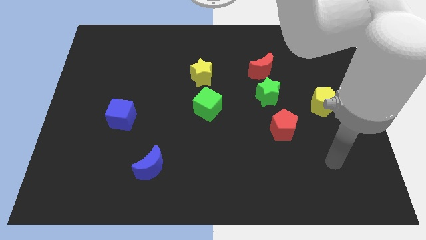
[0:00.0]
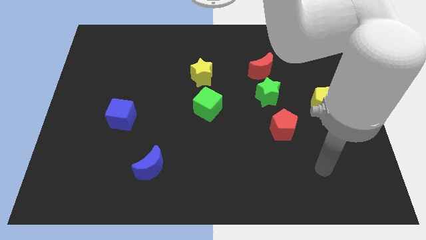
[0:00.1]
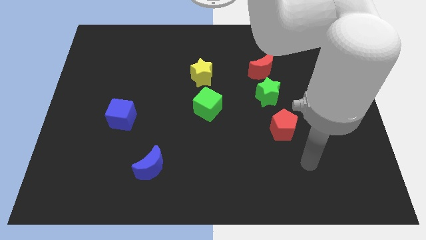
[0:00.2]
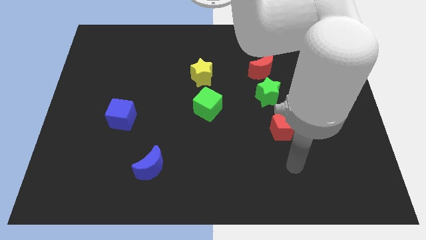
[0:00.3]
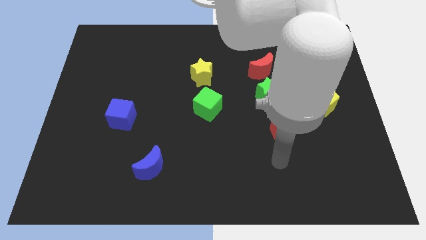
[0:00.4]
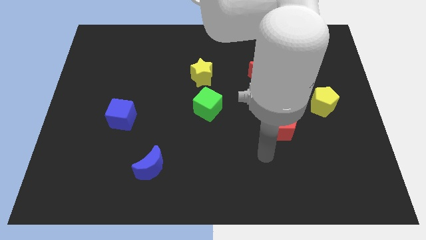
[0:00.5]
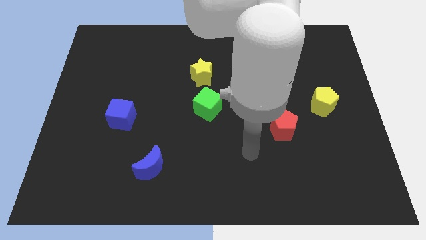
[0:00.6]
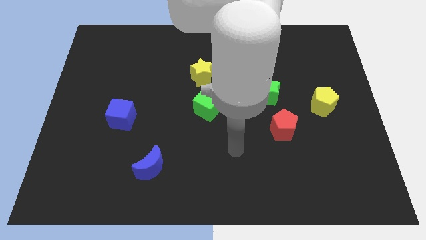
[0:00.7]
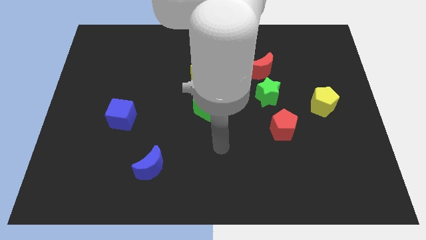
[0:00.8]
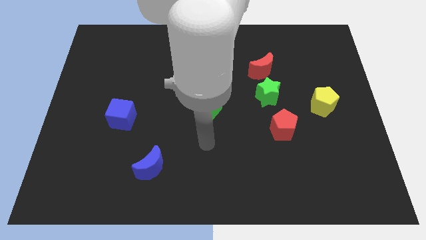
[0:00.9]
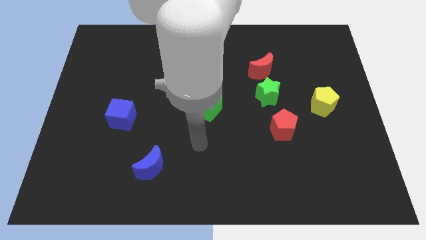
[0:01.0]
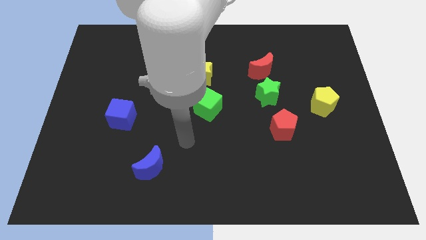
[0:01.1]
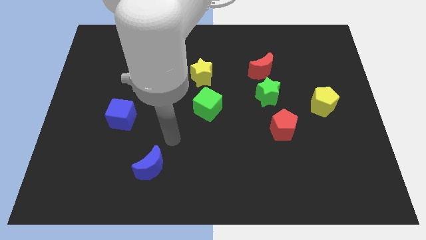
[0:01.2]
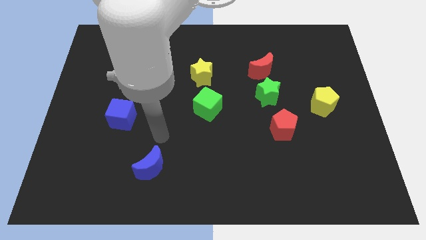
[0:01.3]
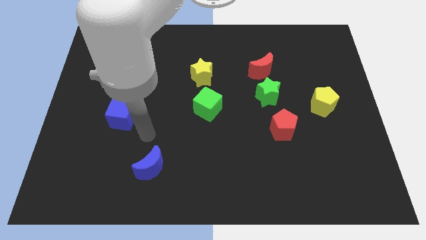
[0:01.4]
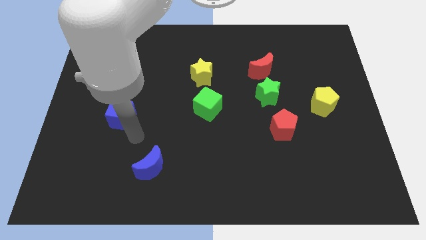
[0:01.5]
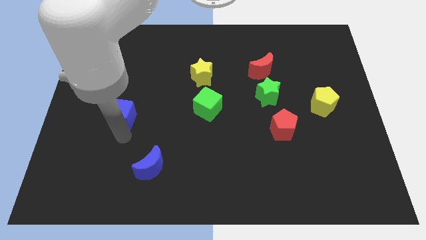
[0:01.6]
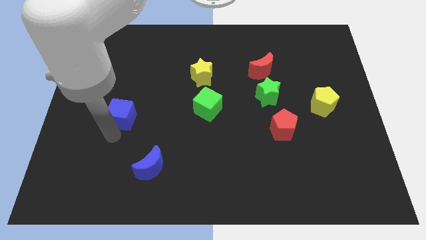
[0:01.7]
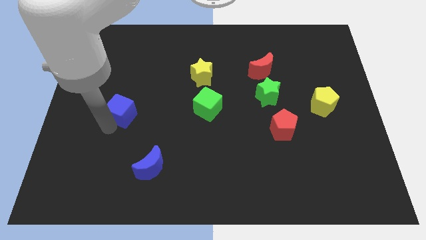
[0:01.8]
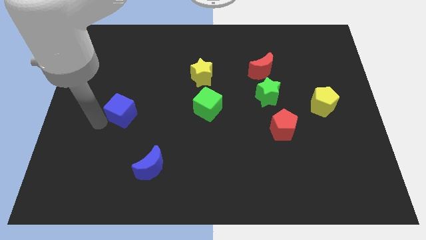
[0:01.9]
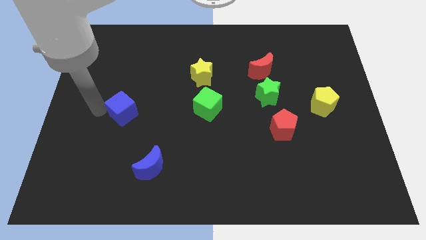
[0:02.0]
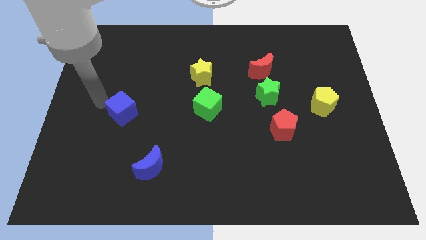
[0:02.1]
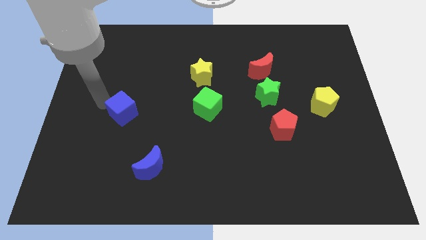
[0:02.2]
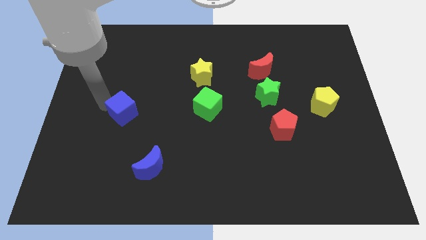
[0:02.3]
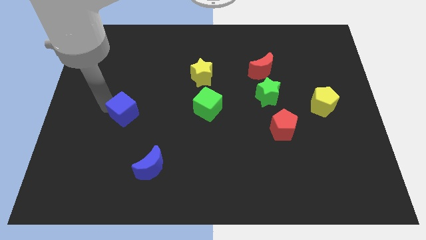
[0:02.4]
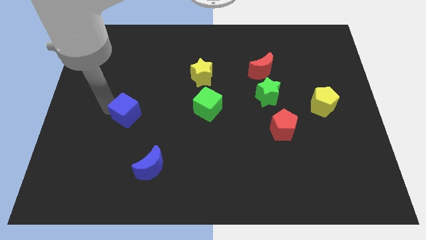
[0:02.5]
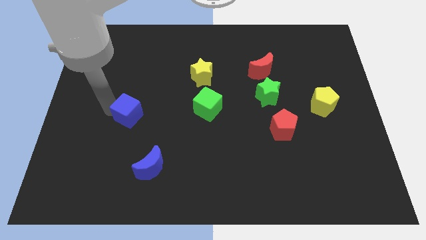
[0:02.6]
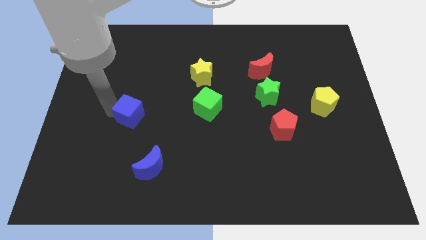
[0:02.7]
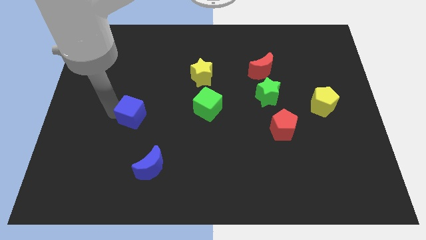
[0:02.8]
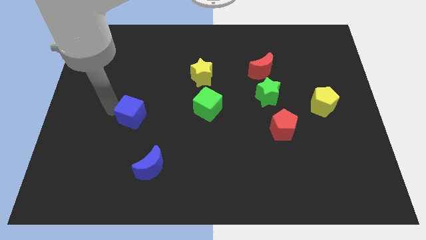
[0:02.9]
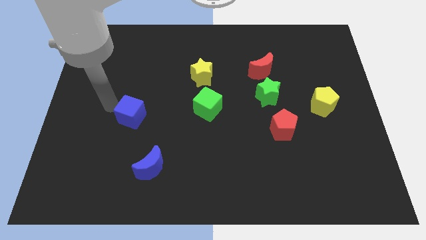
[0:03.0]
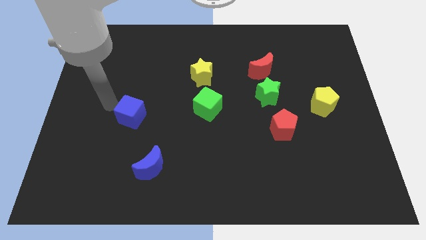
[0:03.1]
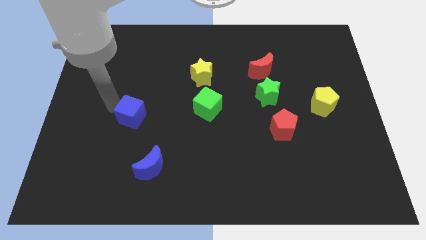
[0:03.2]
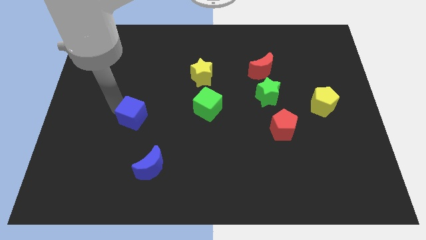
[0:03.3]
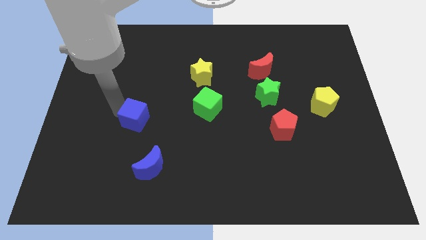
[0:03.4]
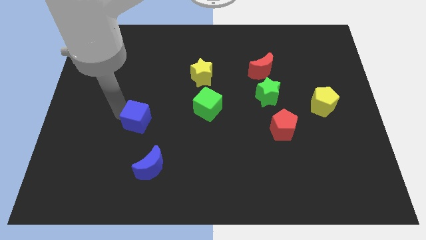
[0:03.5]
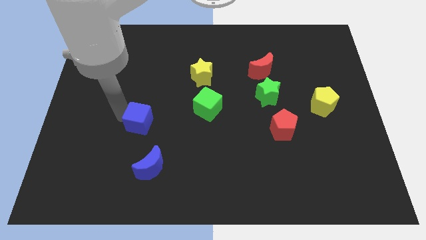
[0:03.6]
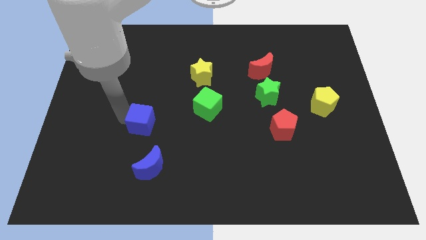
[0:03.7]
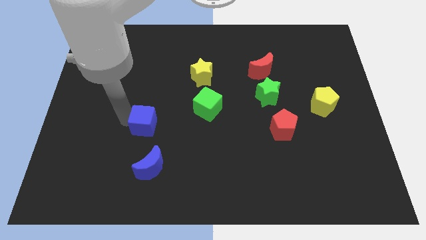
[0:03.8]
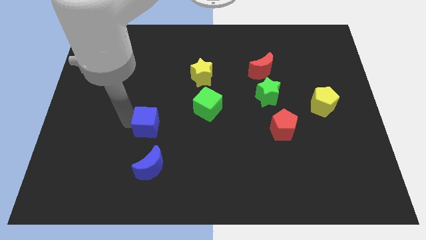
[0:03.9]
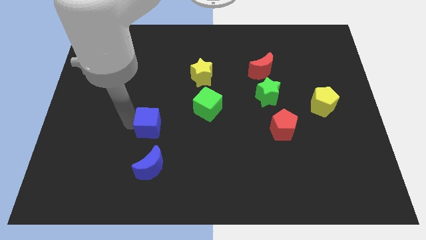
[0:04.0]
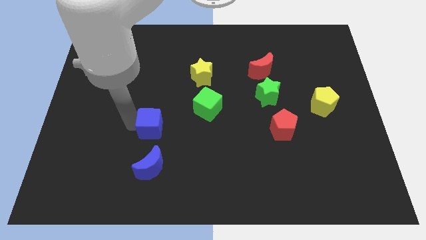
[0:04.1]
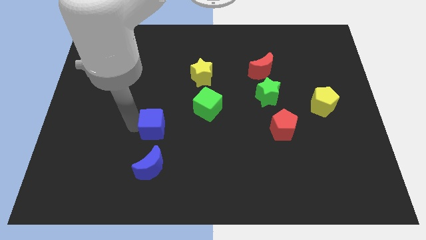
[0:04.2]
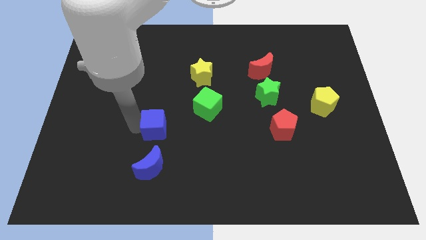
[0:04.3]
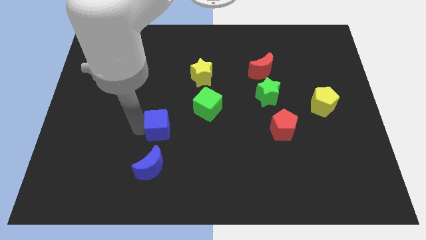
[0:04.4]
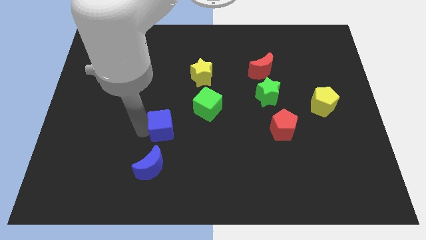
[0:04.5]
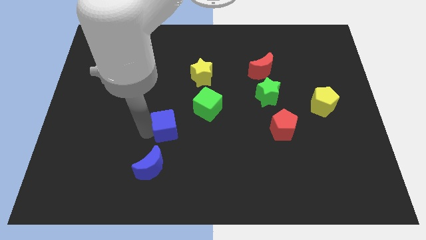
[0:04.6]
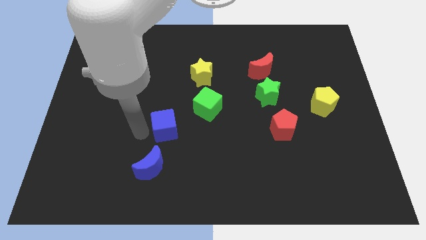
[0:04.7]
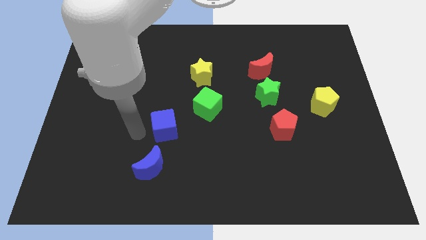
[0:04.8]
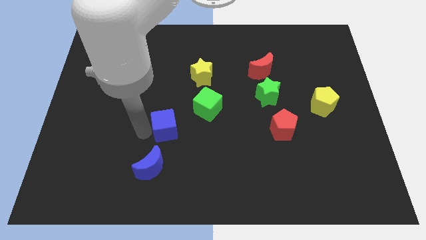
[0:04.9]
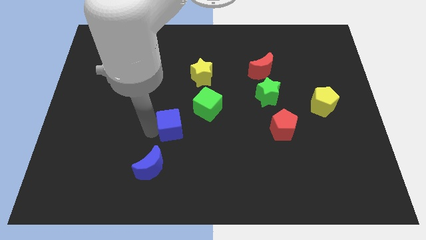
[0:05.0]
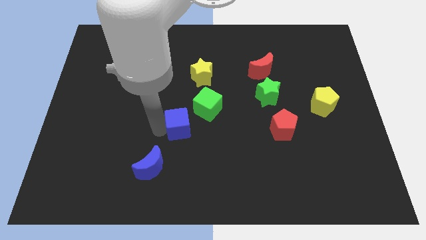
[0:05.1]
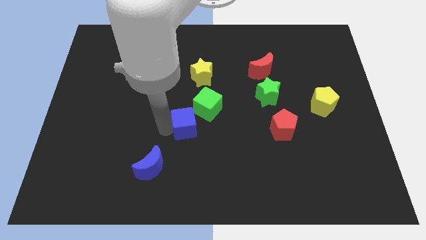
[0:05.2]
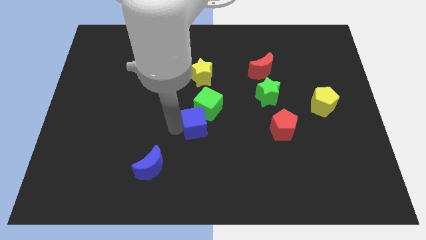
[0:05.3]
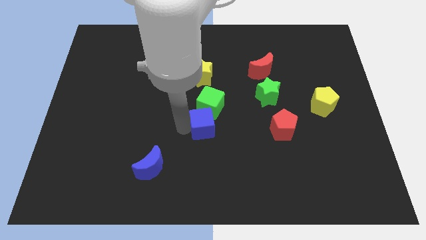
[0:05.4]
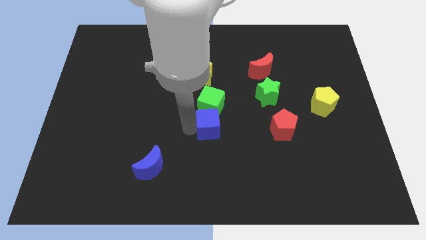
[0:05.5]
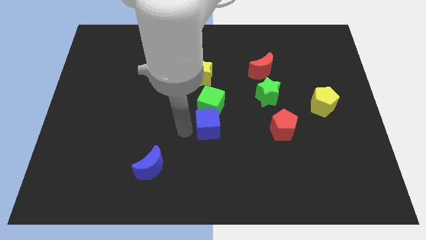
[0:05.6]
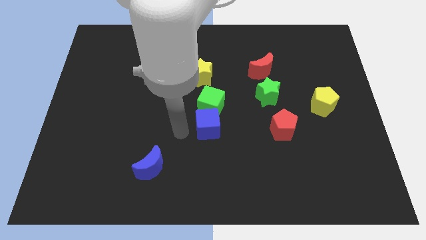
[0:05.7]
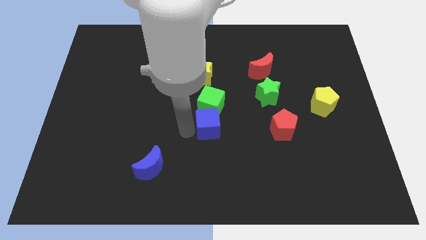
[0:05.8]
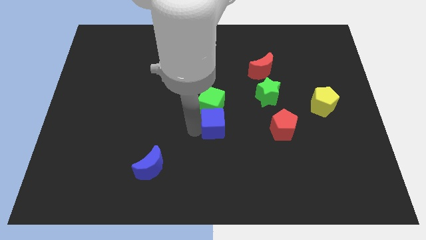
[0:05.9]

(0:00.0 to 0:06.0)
push the blue cube right

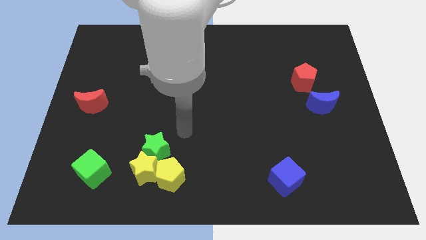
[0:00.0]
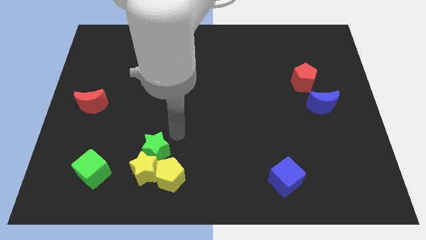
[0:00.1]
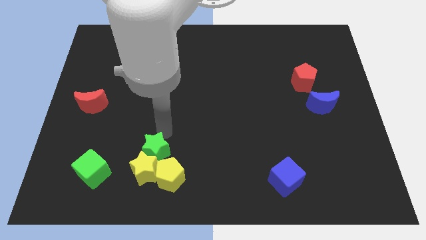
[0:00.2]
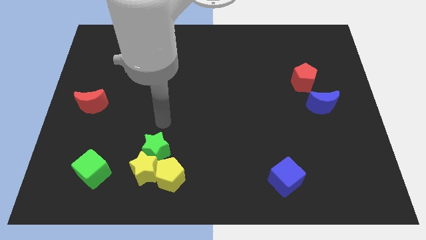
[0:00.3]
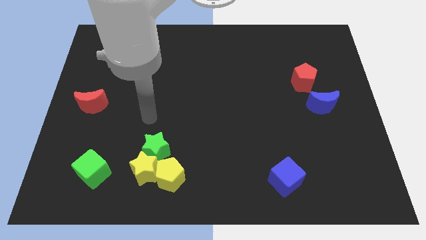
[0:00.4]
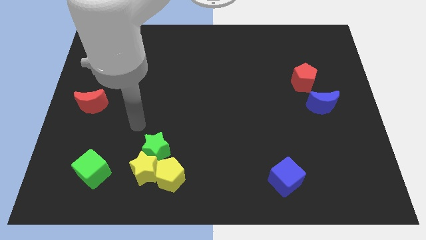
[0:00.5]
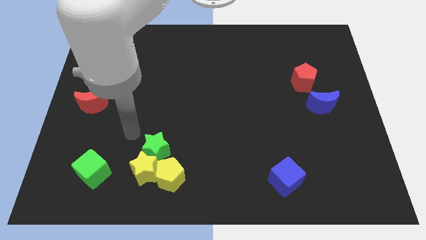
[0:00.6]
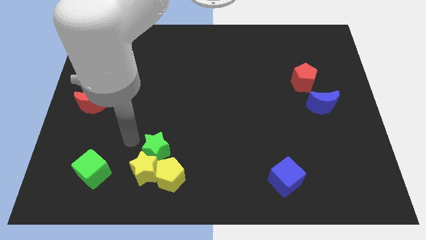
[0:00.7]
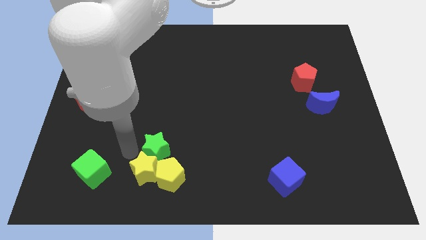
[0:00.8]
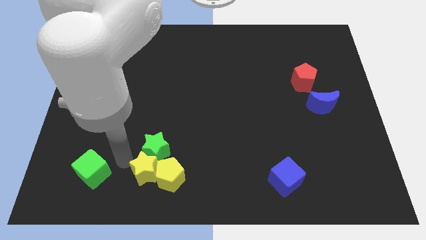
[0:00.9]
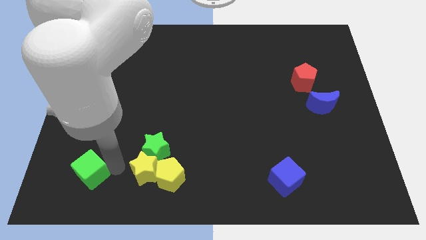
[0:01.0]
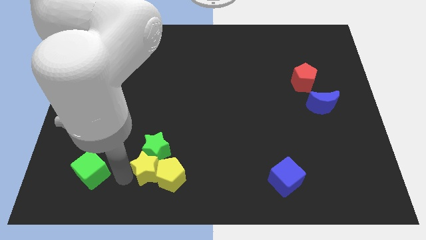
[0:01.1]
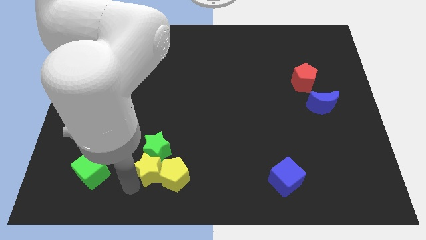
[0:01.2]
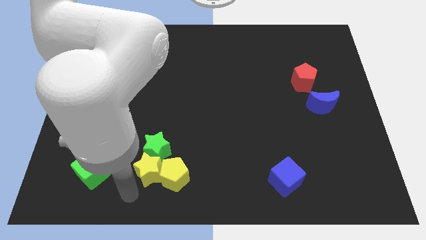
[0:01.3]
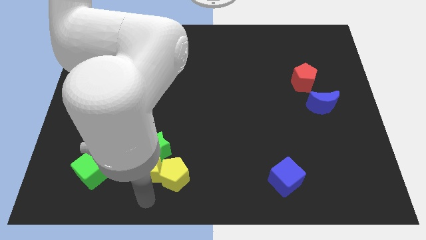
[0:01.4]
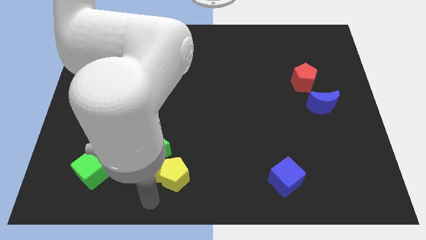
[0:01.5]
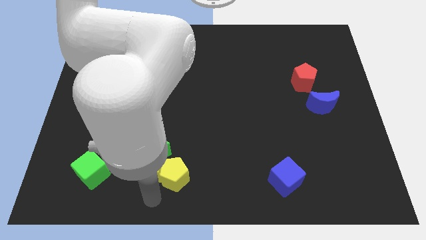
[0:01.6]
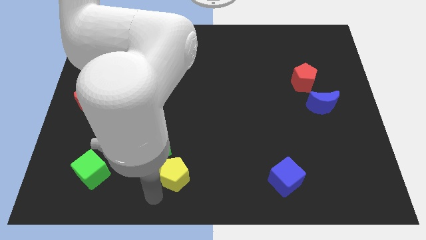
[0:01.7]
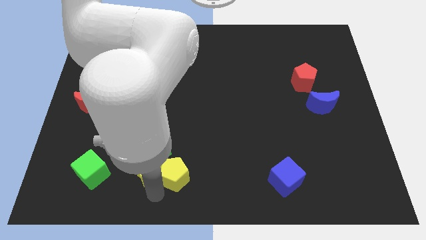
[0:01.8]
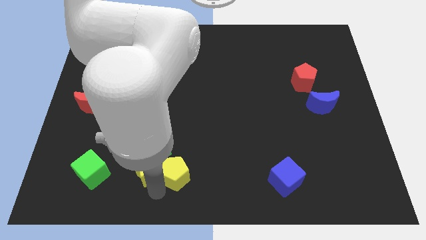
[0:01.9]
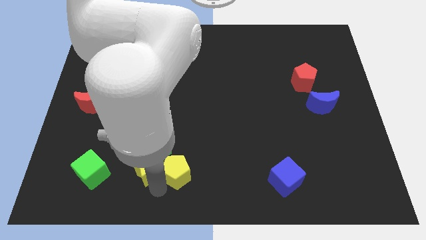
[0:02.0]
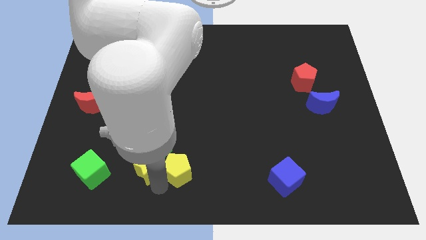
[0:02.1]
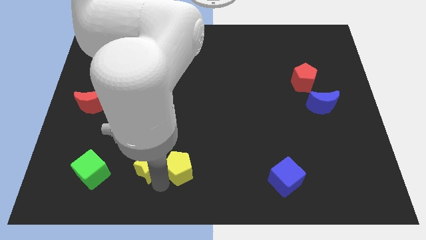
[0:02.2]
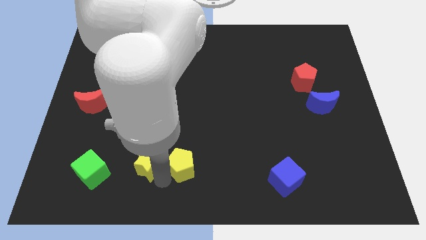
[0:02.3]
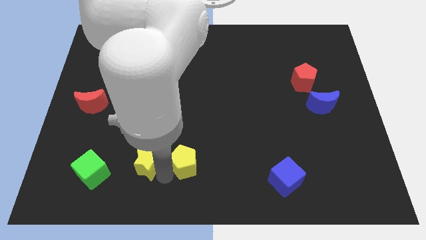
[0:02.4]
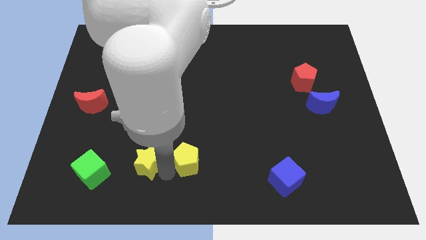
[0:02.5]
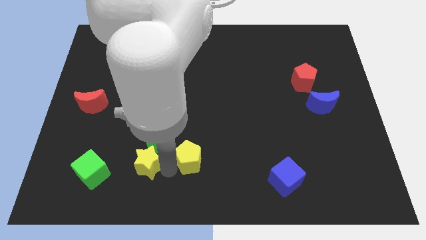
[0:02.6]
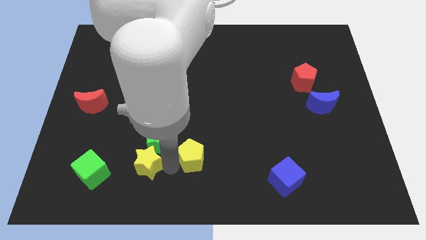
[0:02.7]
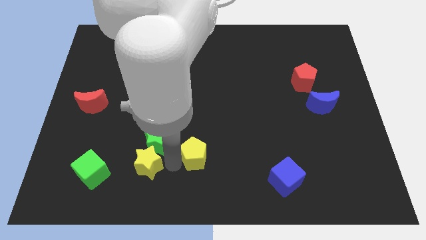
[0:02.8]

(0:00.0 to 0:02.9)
slide the yellow pentagon a bit up and right
